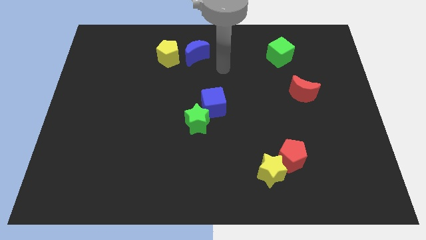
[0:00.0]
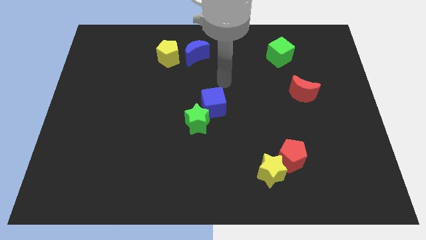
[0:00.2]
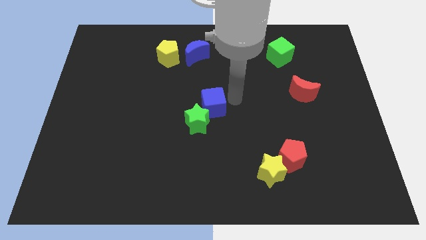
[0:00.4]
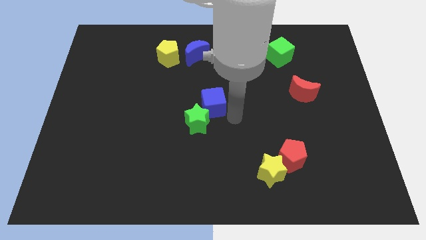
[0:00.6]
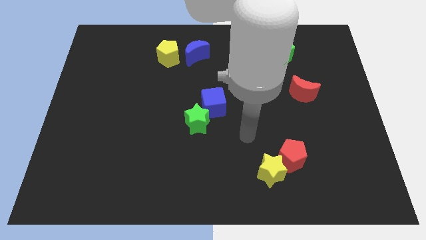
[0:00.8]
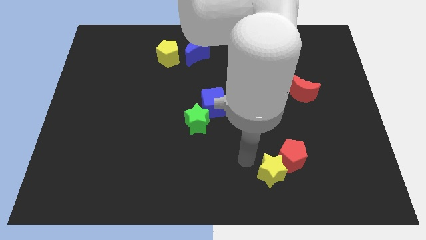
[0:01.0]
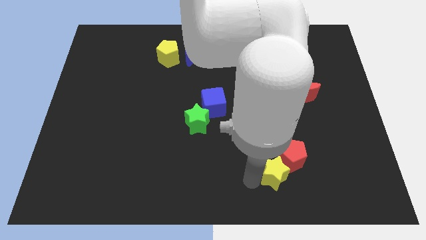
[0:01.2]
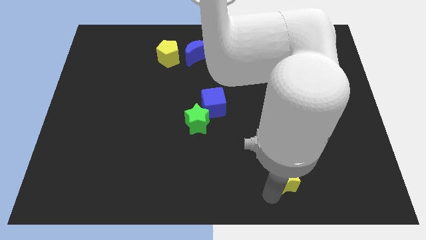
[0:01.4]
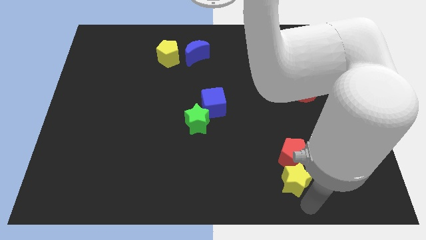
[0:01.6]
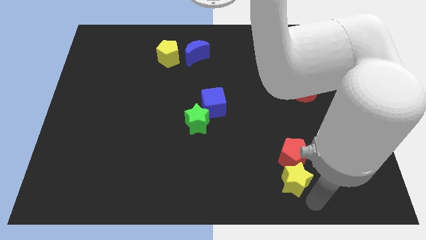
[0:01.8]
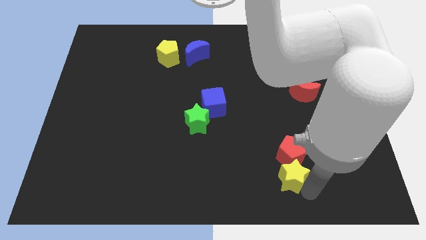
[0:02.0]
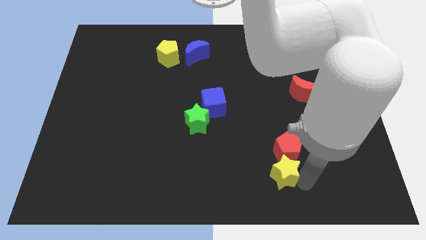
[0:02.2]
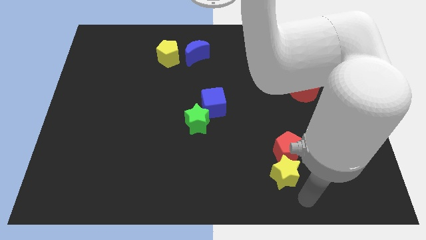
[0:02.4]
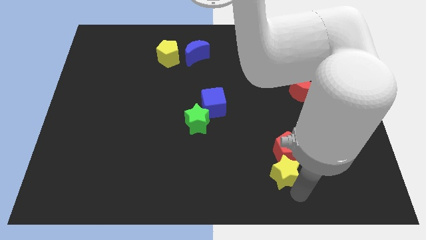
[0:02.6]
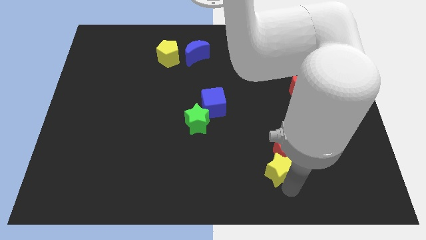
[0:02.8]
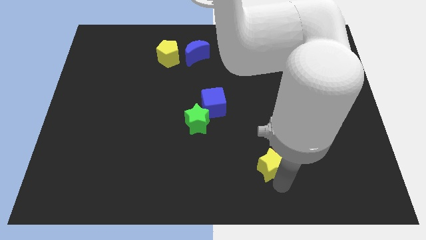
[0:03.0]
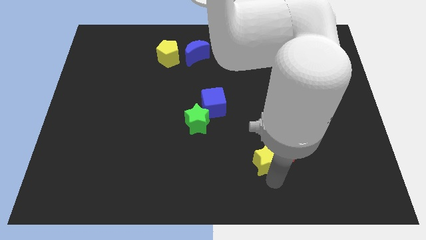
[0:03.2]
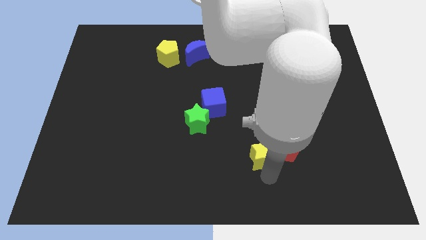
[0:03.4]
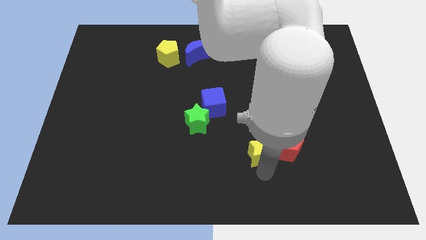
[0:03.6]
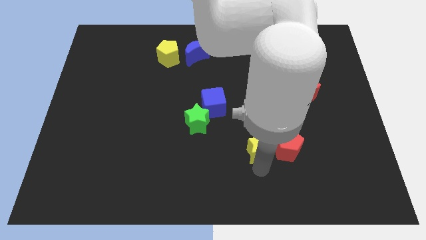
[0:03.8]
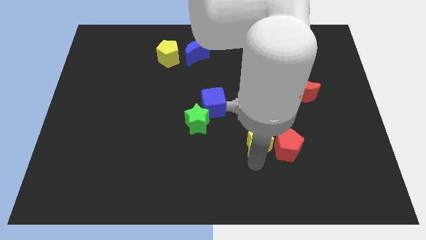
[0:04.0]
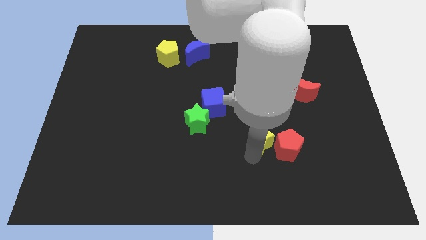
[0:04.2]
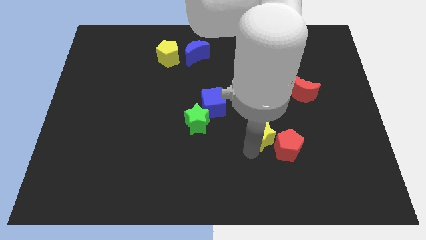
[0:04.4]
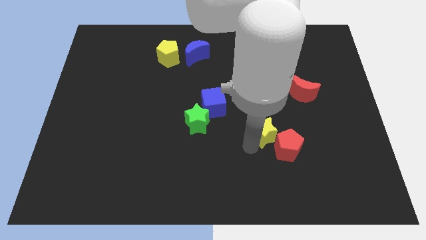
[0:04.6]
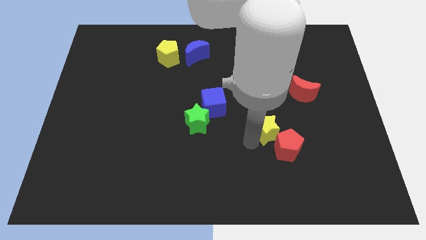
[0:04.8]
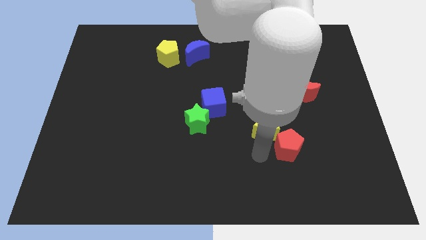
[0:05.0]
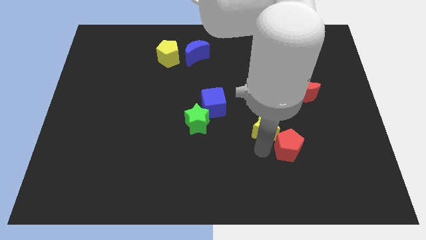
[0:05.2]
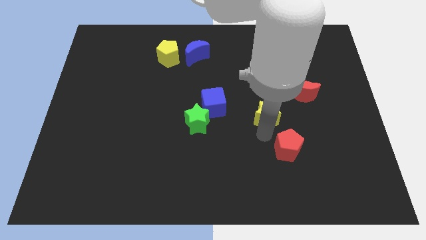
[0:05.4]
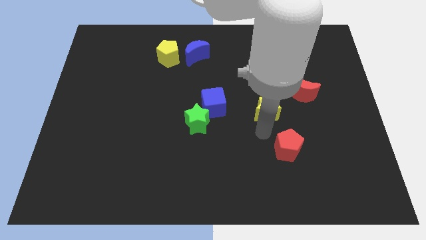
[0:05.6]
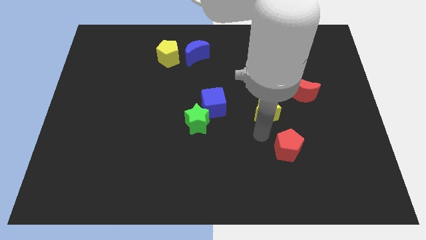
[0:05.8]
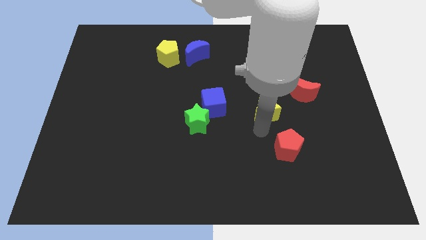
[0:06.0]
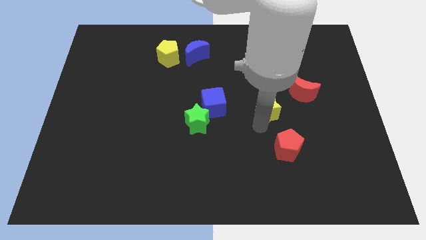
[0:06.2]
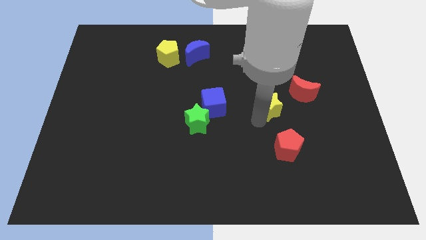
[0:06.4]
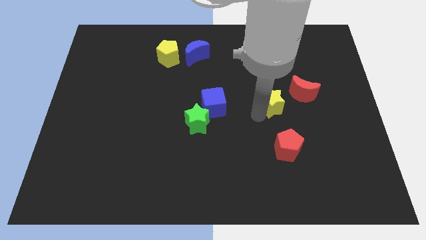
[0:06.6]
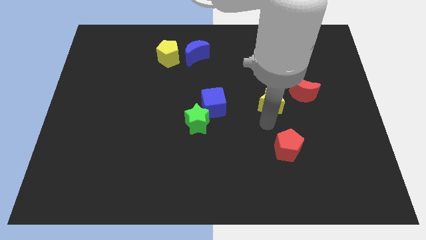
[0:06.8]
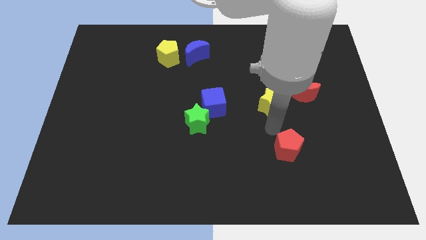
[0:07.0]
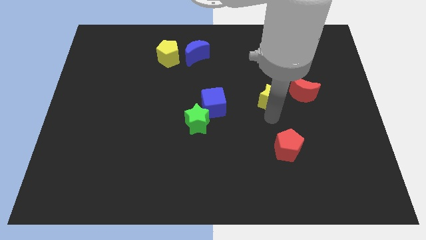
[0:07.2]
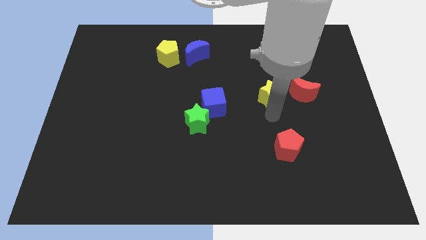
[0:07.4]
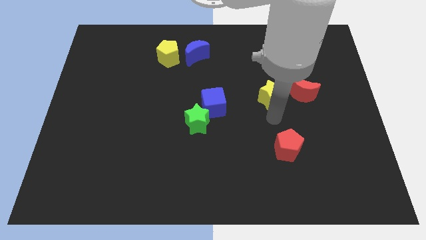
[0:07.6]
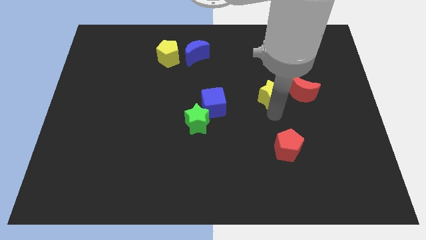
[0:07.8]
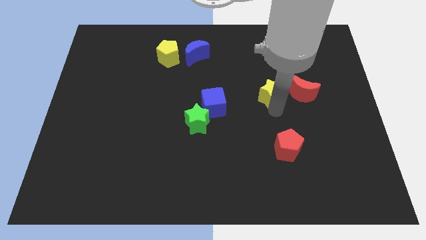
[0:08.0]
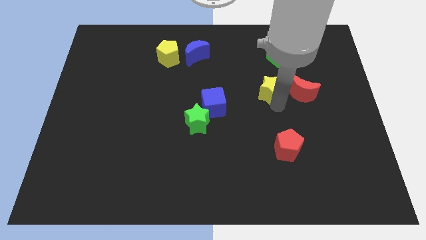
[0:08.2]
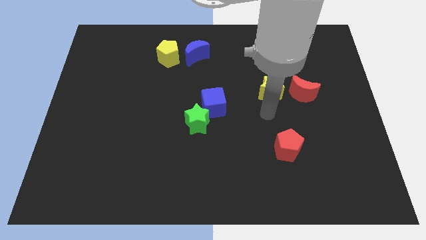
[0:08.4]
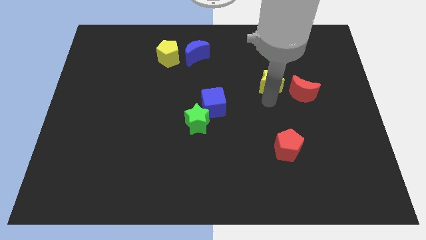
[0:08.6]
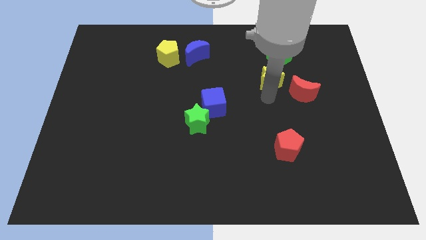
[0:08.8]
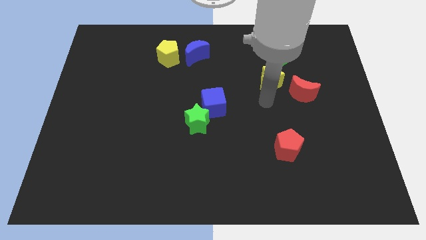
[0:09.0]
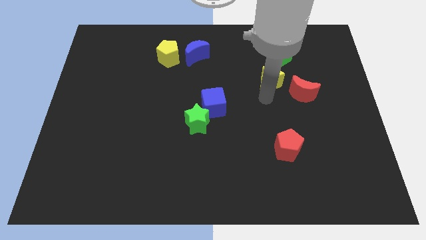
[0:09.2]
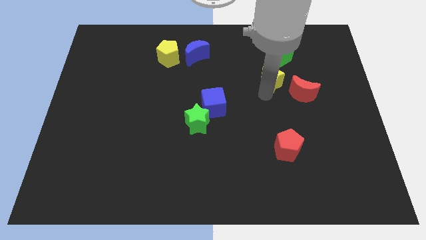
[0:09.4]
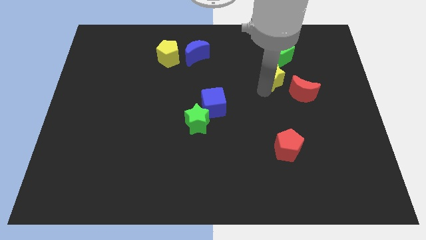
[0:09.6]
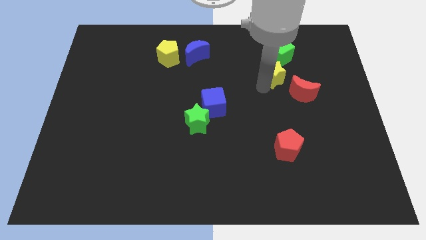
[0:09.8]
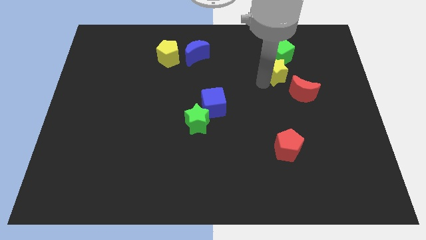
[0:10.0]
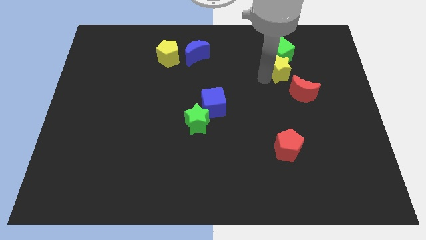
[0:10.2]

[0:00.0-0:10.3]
slide the yellow star to the green cube

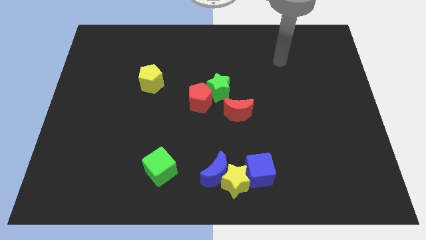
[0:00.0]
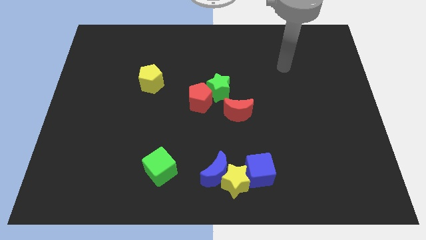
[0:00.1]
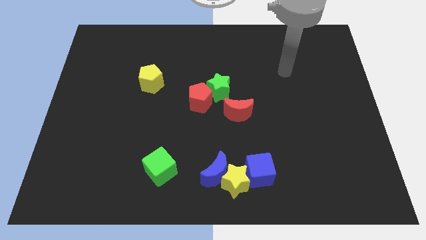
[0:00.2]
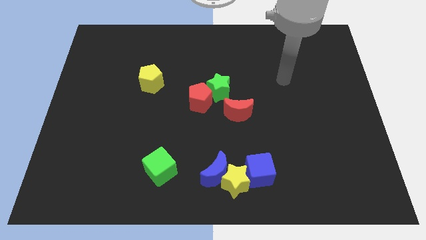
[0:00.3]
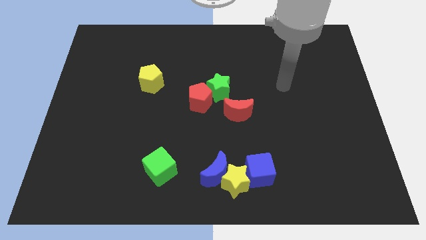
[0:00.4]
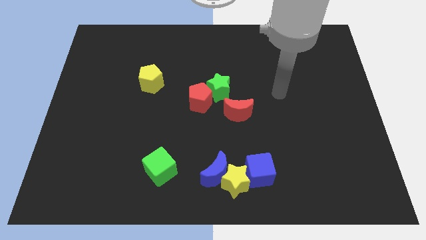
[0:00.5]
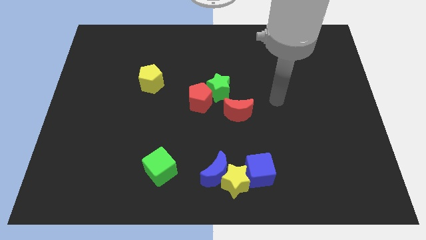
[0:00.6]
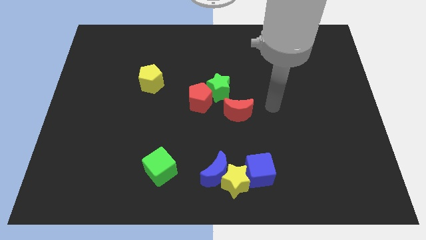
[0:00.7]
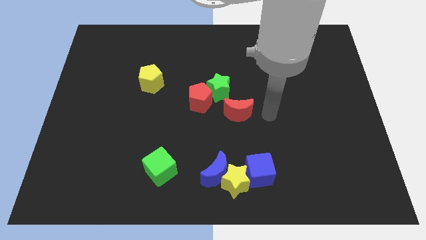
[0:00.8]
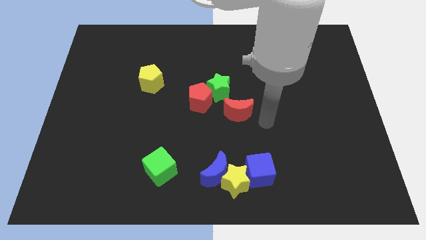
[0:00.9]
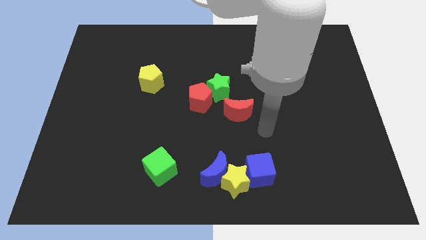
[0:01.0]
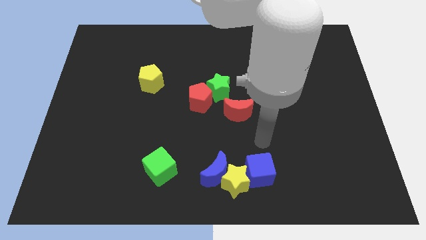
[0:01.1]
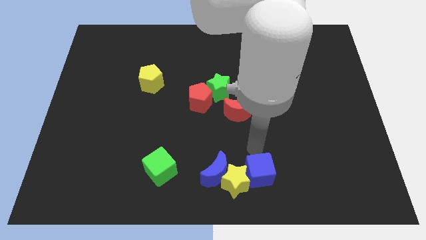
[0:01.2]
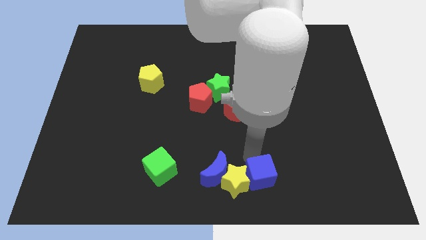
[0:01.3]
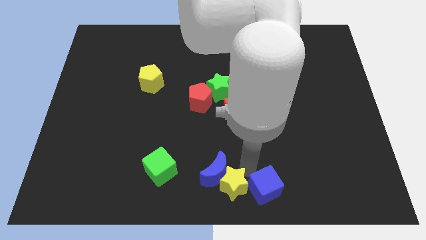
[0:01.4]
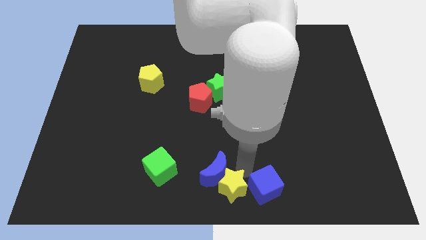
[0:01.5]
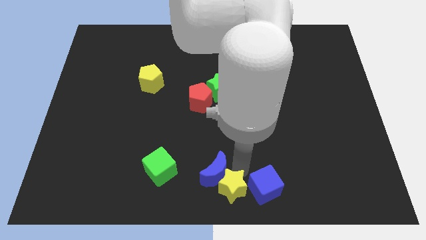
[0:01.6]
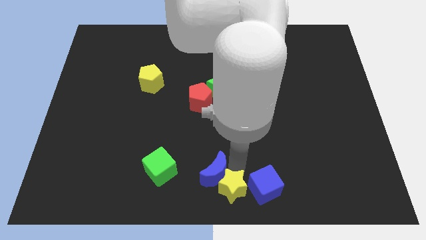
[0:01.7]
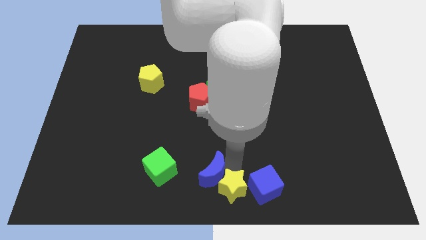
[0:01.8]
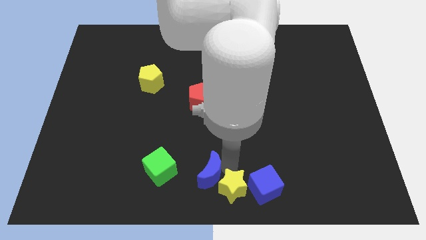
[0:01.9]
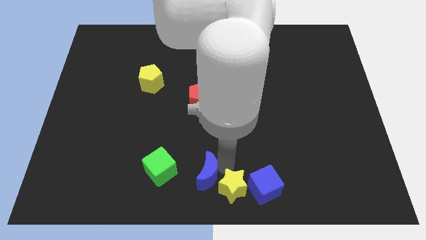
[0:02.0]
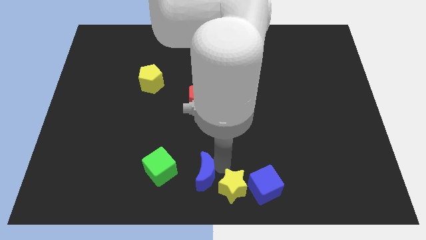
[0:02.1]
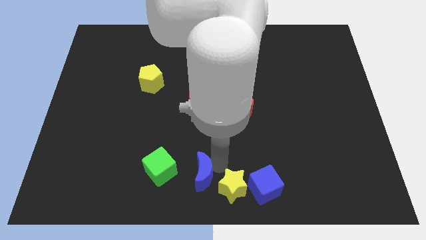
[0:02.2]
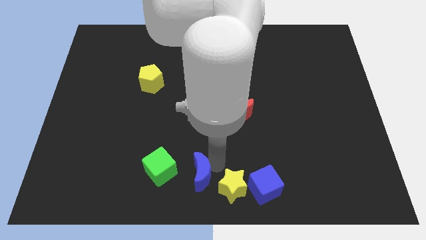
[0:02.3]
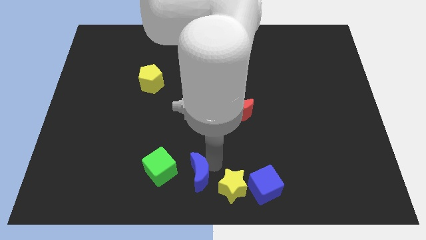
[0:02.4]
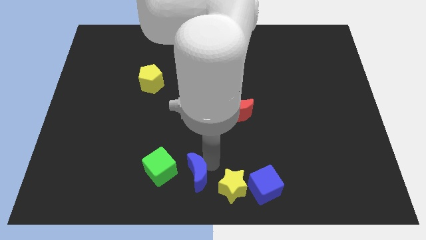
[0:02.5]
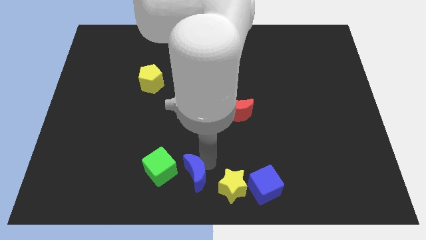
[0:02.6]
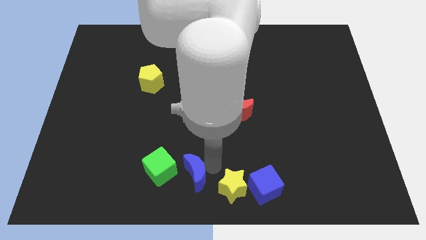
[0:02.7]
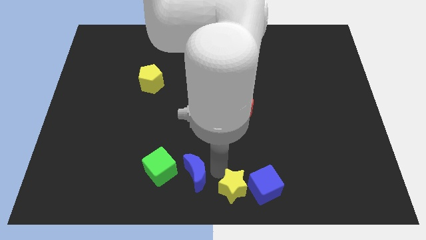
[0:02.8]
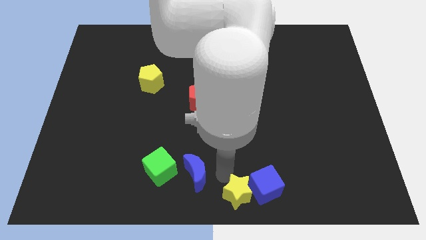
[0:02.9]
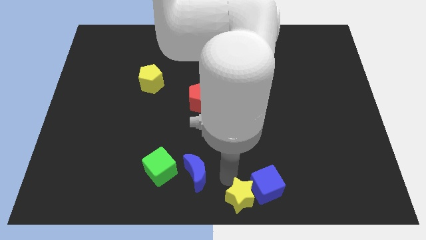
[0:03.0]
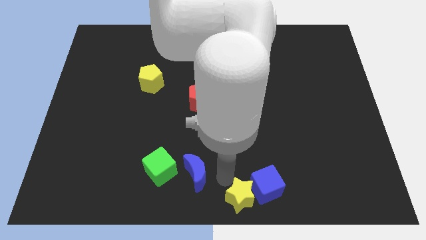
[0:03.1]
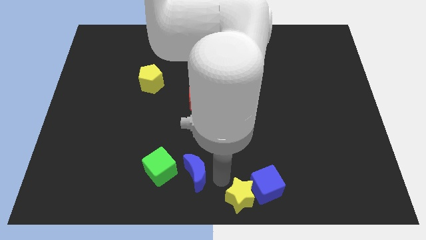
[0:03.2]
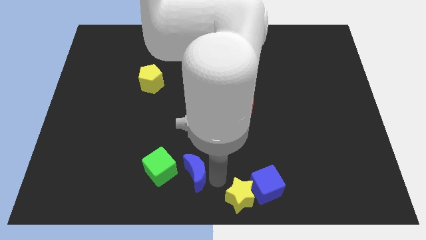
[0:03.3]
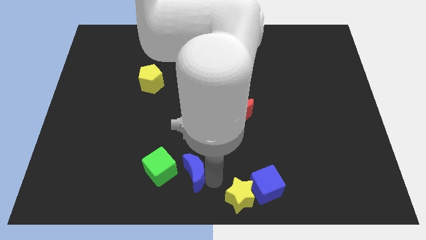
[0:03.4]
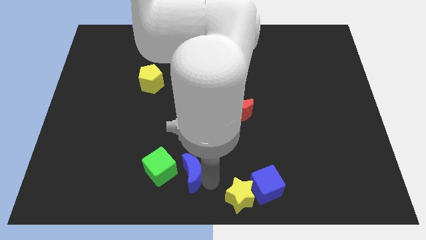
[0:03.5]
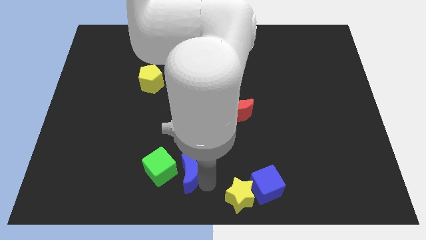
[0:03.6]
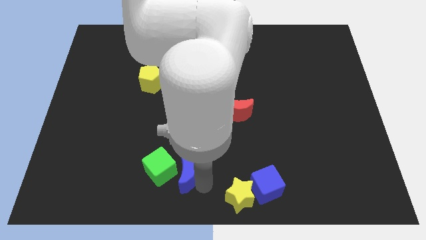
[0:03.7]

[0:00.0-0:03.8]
move the blue moon towards the green cube
